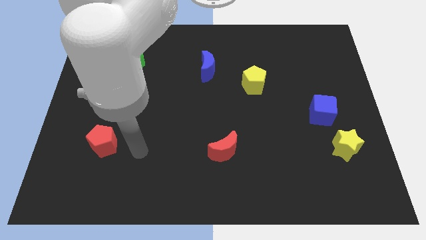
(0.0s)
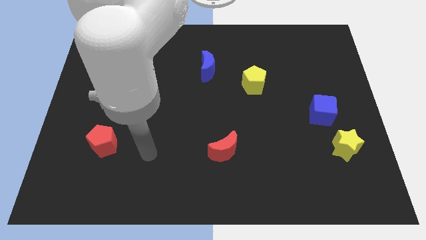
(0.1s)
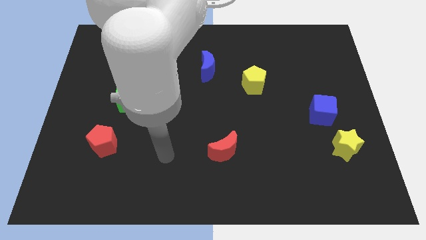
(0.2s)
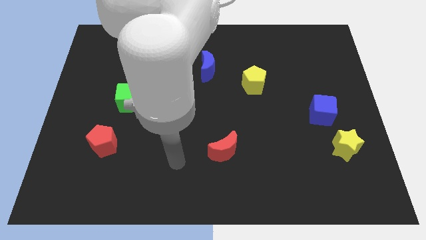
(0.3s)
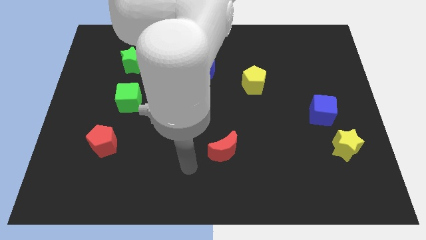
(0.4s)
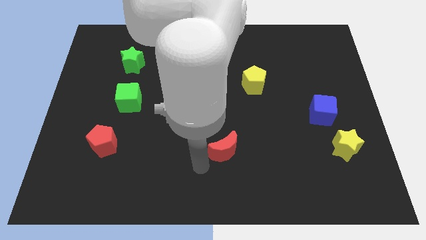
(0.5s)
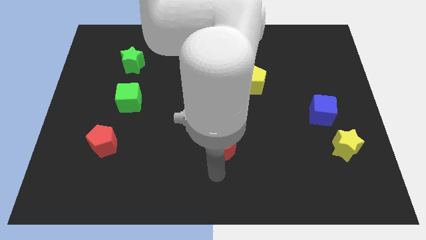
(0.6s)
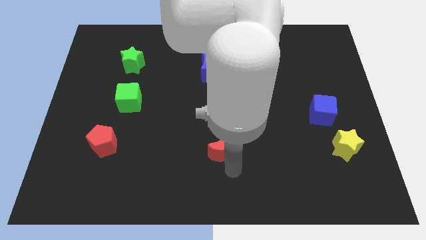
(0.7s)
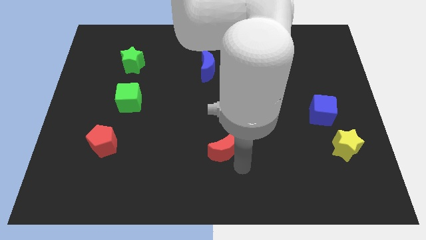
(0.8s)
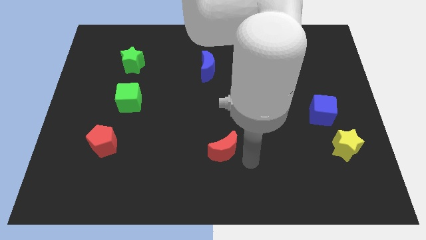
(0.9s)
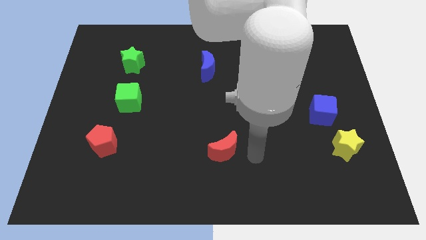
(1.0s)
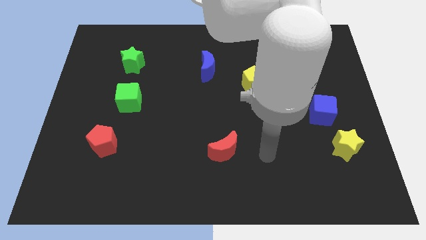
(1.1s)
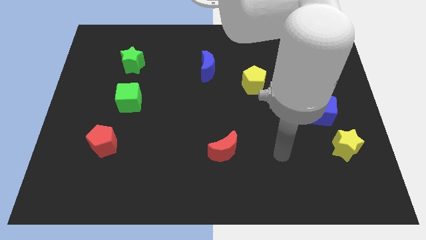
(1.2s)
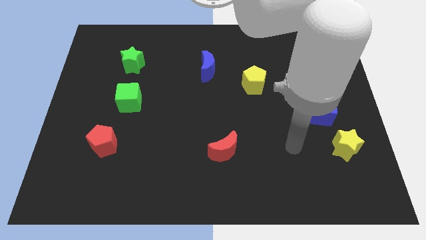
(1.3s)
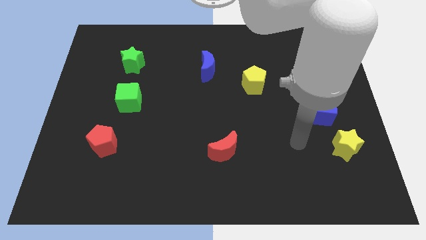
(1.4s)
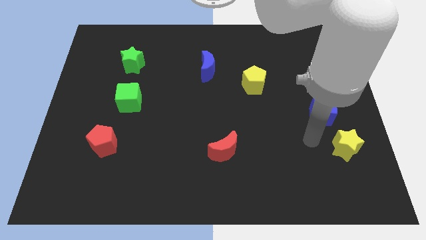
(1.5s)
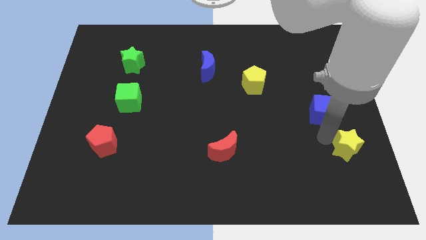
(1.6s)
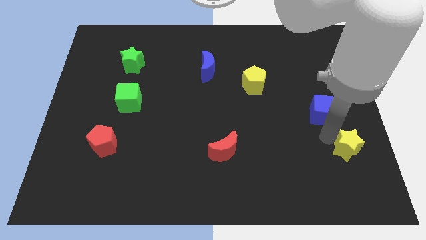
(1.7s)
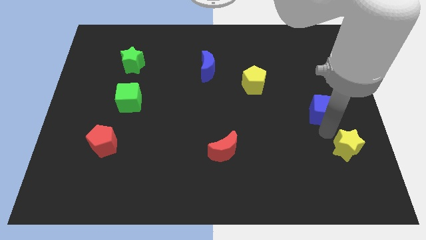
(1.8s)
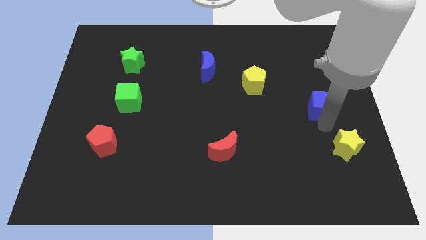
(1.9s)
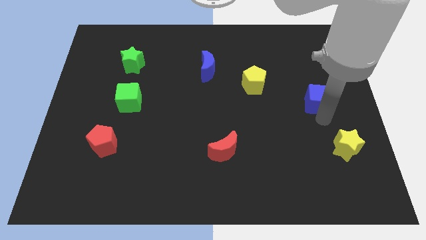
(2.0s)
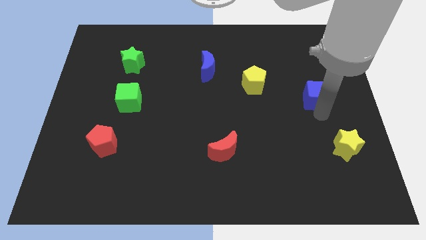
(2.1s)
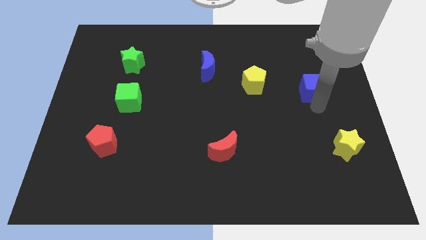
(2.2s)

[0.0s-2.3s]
push the blue cube up a bit

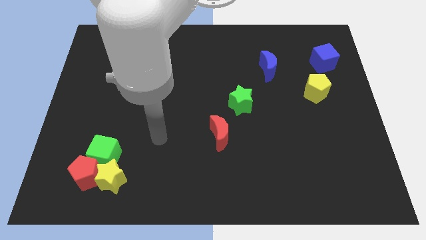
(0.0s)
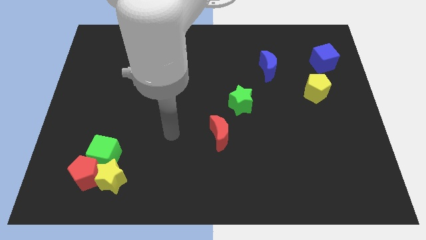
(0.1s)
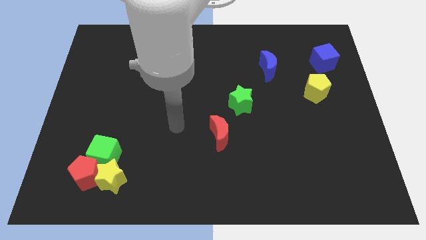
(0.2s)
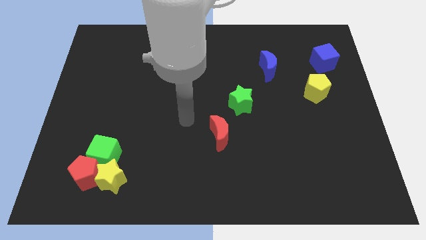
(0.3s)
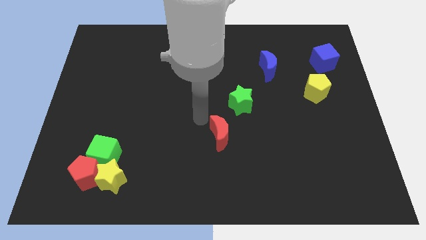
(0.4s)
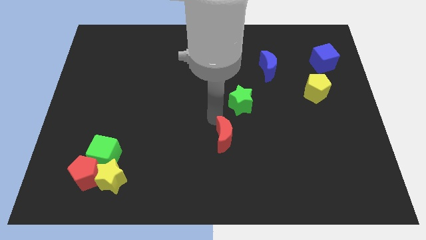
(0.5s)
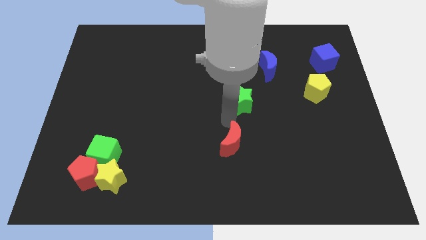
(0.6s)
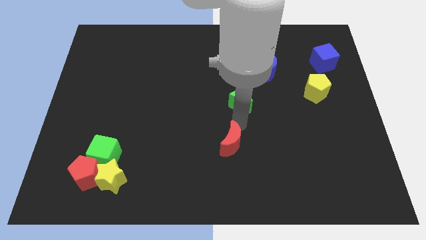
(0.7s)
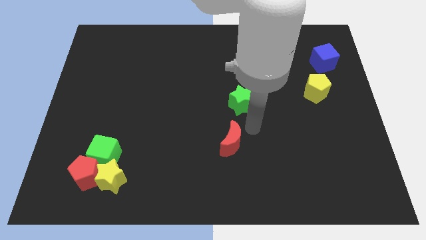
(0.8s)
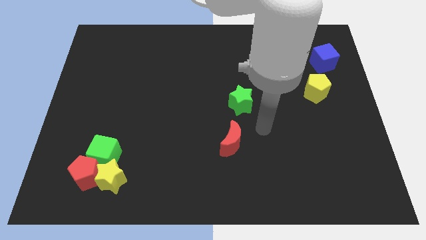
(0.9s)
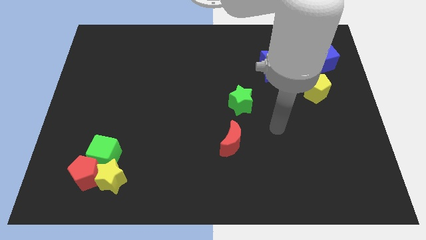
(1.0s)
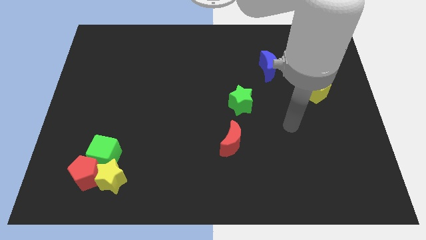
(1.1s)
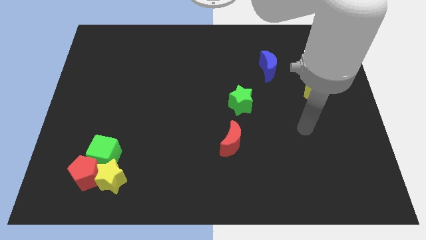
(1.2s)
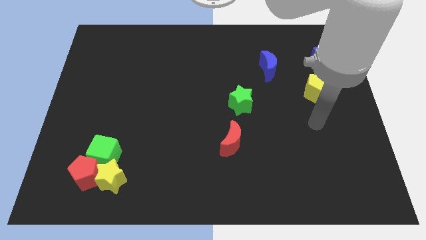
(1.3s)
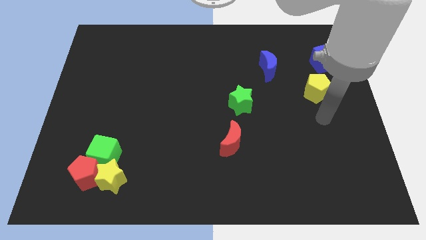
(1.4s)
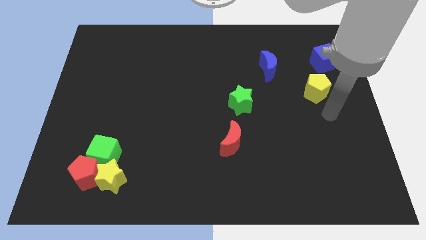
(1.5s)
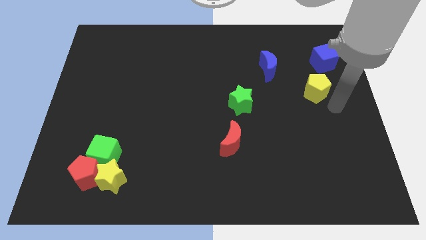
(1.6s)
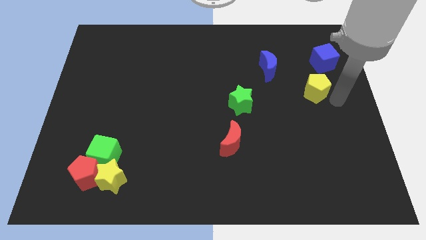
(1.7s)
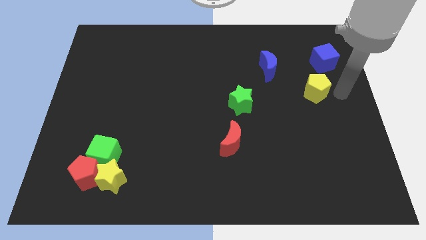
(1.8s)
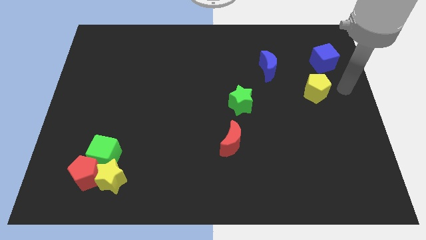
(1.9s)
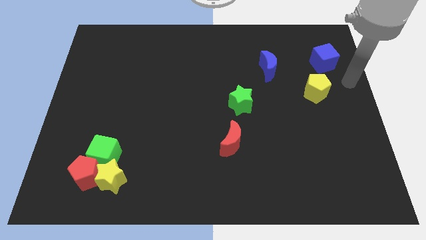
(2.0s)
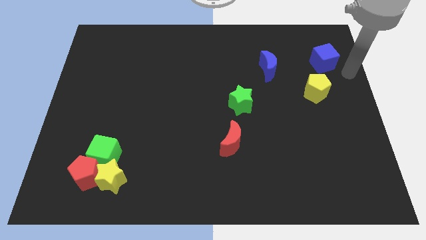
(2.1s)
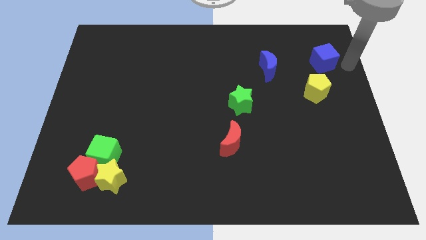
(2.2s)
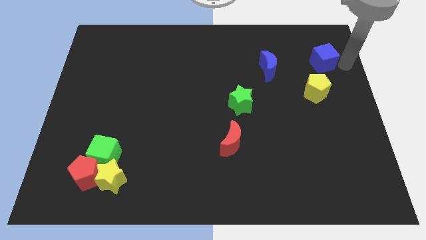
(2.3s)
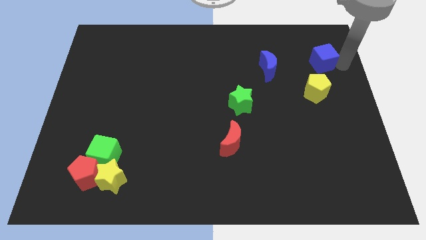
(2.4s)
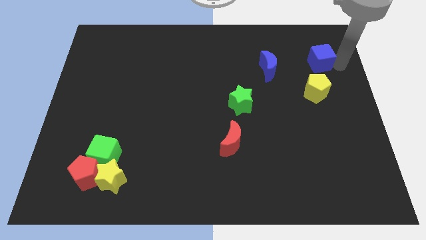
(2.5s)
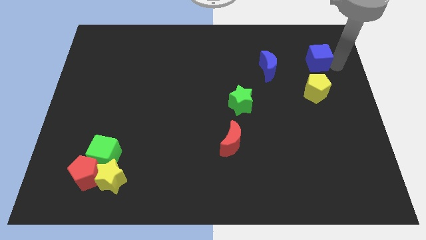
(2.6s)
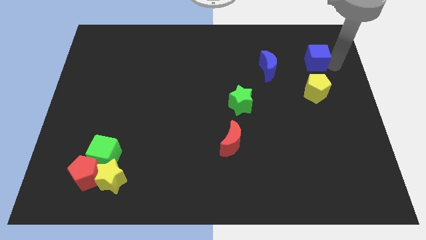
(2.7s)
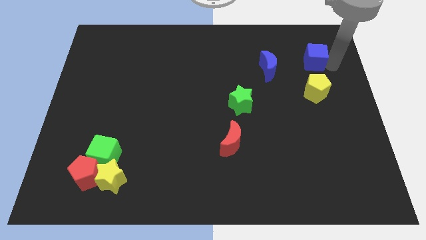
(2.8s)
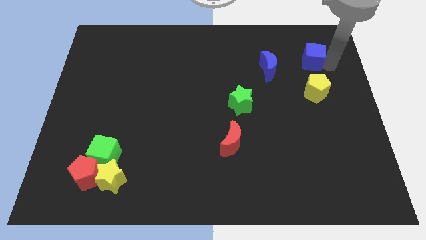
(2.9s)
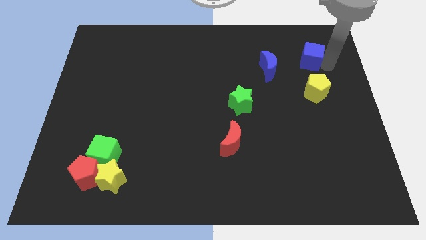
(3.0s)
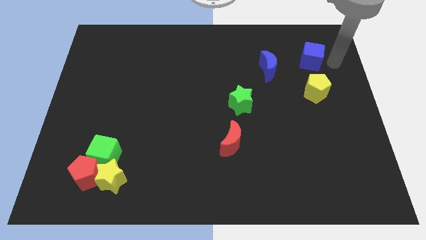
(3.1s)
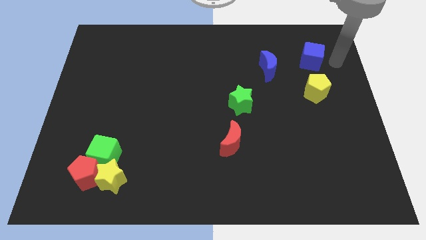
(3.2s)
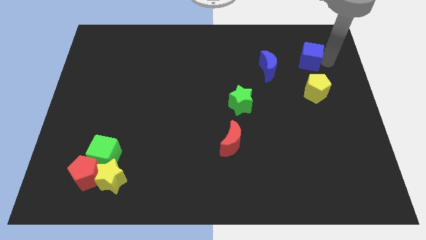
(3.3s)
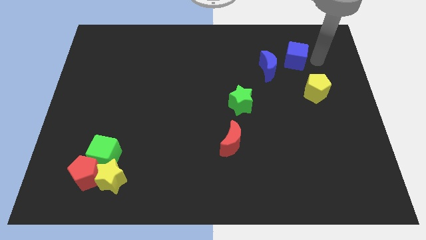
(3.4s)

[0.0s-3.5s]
push the blue cube somewhat to the left

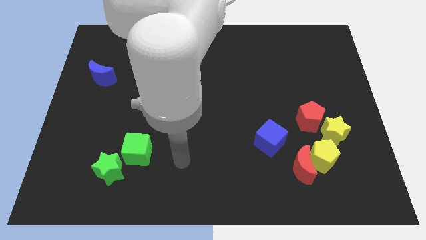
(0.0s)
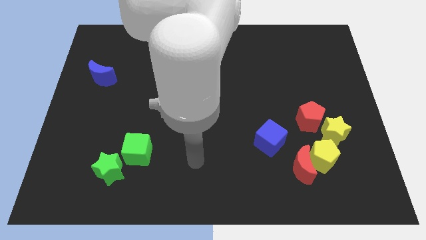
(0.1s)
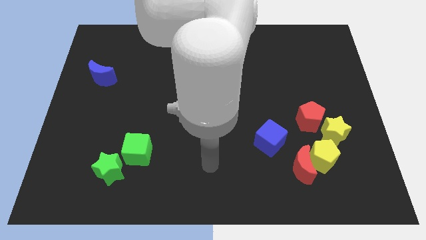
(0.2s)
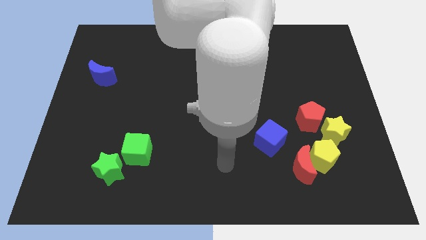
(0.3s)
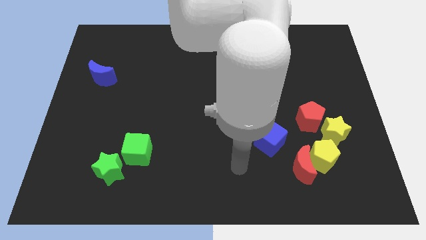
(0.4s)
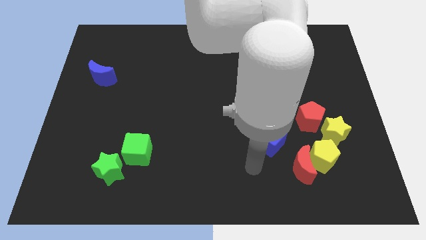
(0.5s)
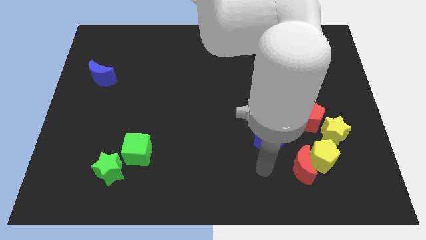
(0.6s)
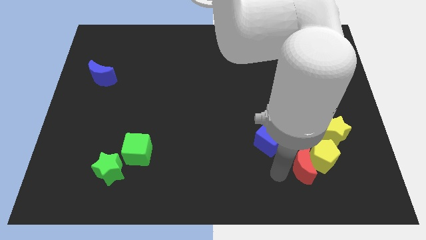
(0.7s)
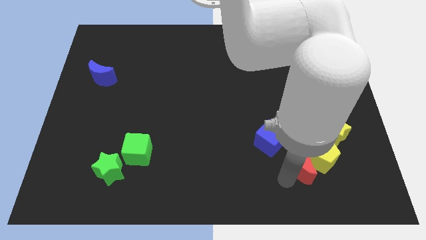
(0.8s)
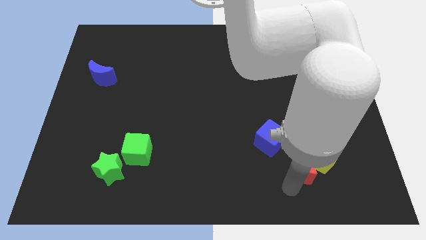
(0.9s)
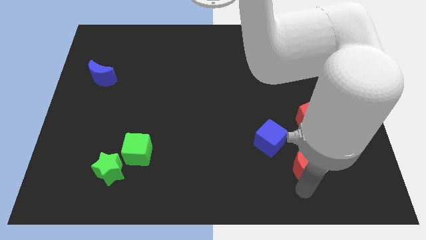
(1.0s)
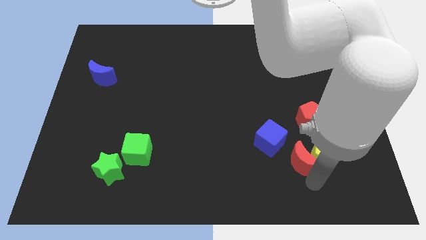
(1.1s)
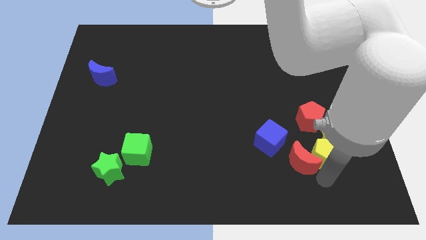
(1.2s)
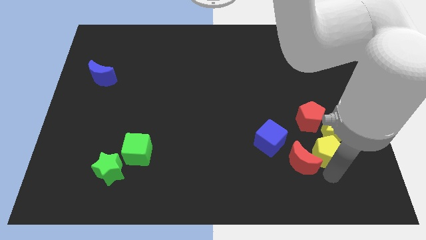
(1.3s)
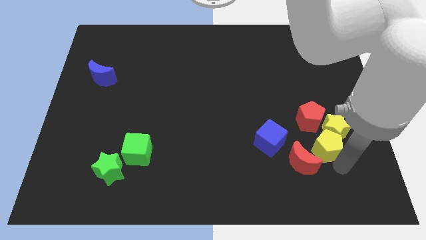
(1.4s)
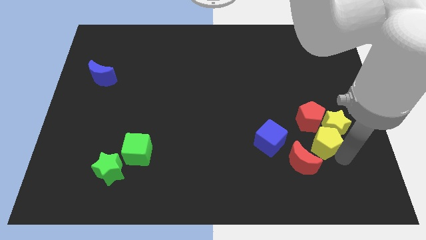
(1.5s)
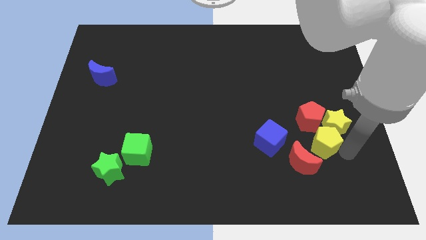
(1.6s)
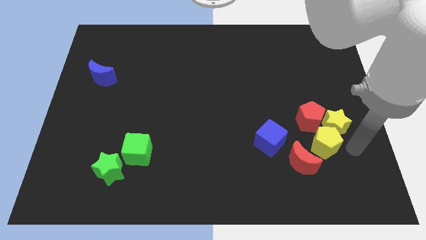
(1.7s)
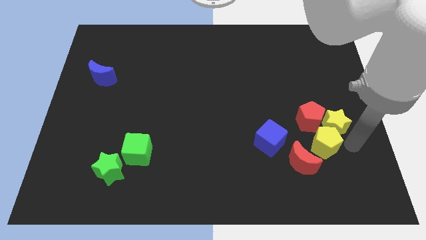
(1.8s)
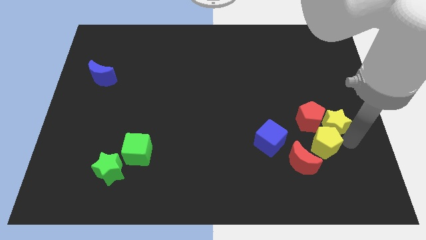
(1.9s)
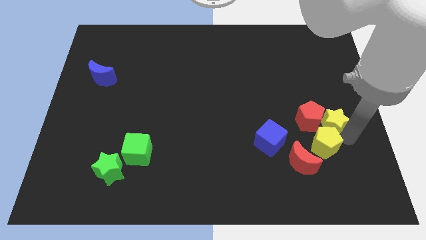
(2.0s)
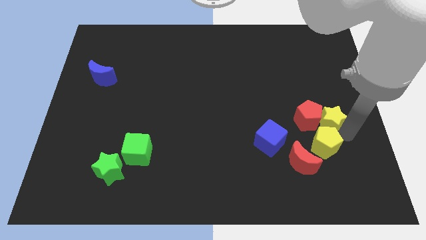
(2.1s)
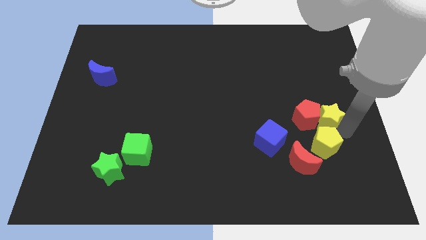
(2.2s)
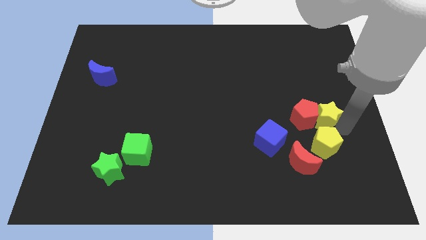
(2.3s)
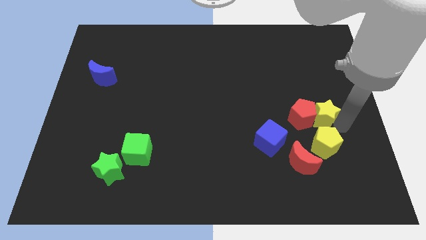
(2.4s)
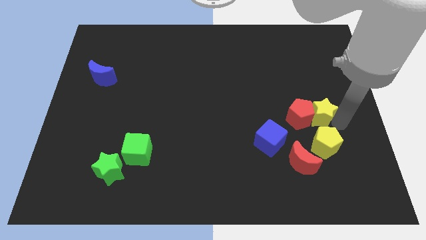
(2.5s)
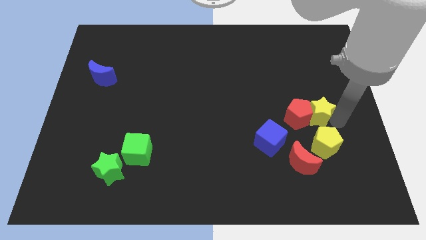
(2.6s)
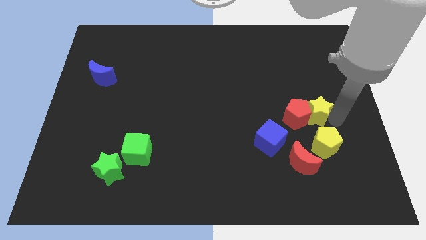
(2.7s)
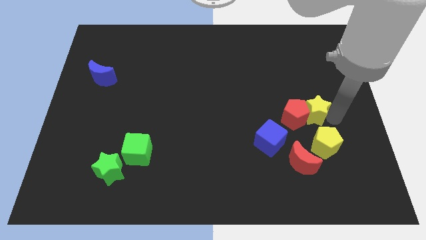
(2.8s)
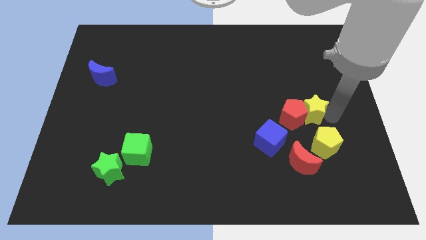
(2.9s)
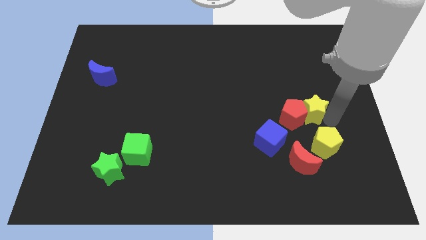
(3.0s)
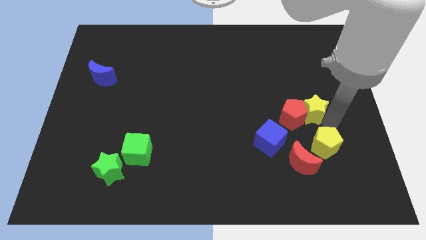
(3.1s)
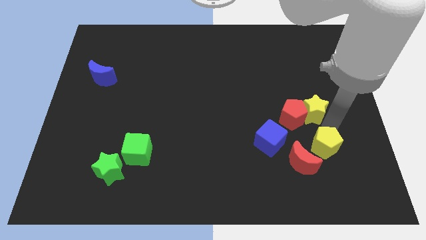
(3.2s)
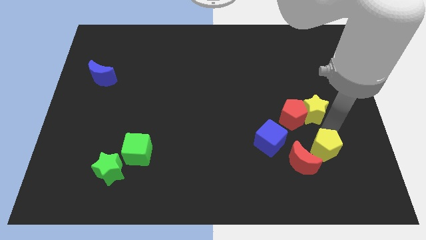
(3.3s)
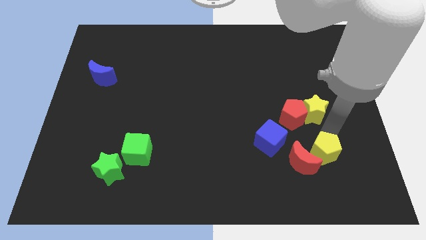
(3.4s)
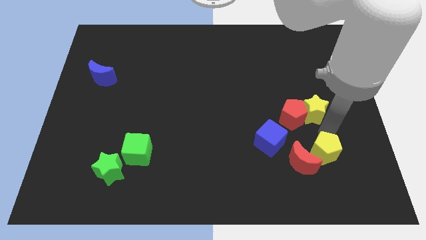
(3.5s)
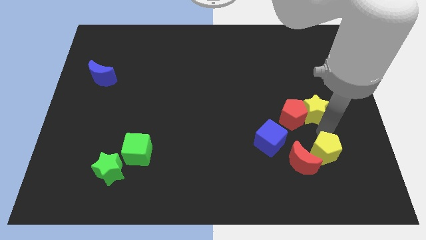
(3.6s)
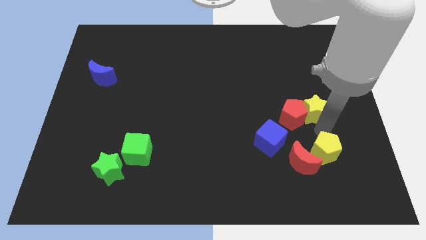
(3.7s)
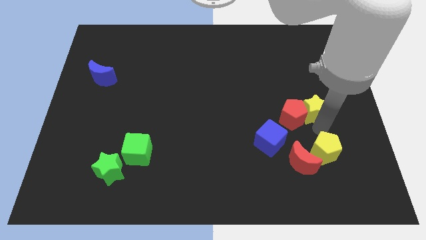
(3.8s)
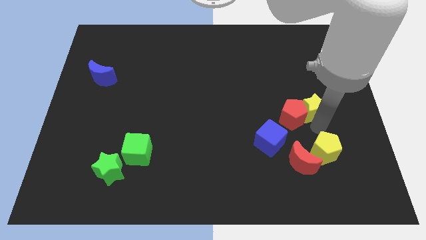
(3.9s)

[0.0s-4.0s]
slightly move the yellow star up and to the left diagonally
